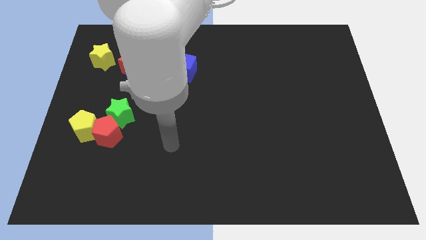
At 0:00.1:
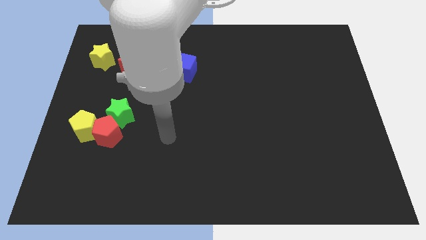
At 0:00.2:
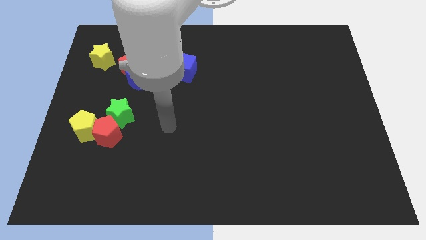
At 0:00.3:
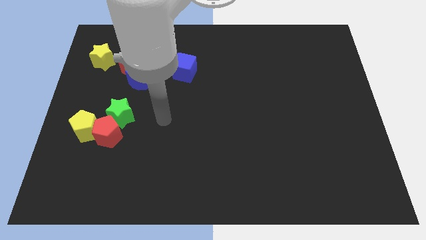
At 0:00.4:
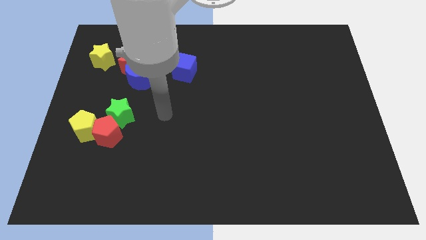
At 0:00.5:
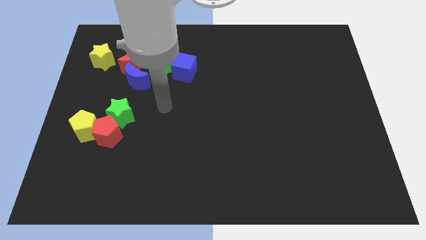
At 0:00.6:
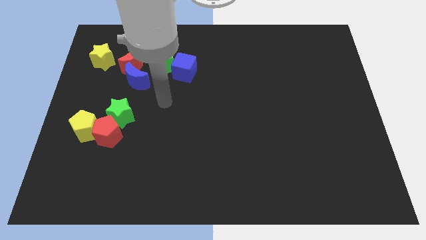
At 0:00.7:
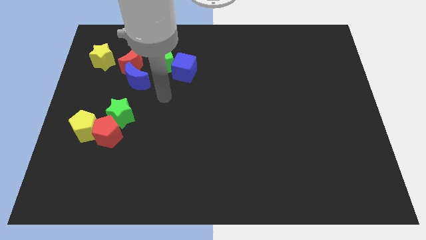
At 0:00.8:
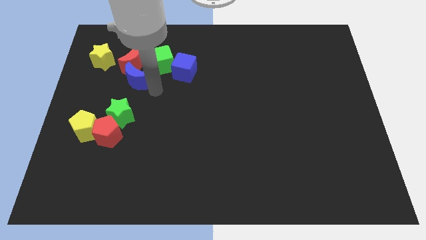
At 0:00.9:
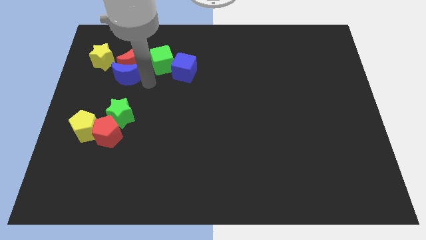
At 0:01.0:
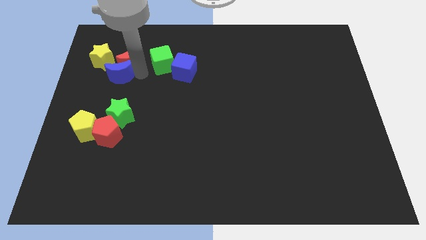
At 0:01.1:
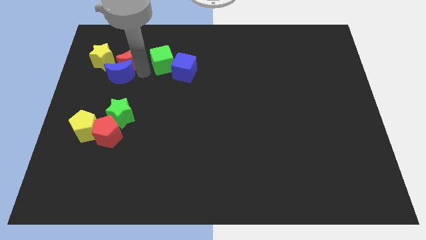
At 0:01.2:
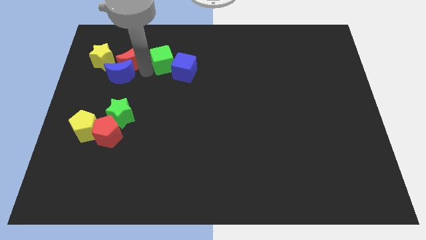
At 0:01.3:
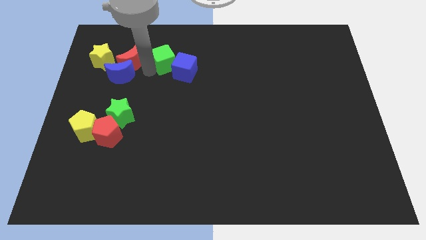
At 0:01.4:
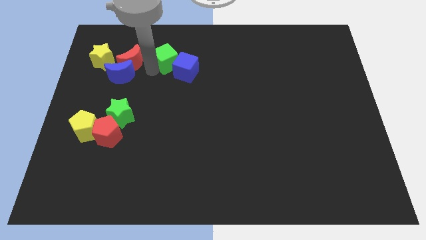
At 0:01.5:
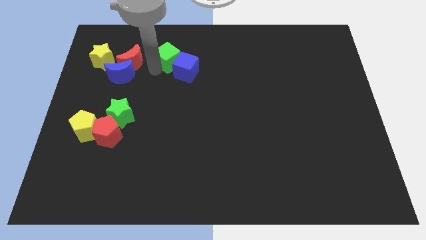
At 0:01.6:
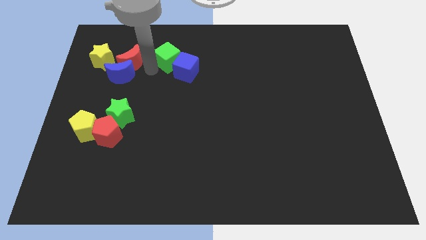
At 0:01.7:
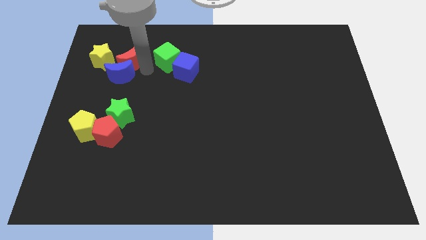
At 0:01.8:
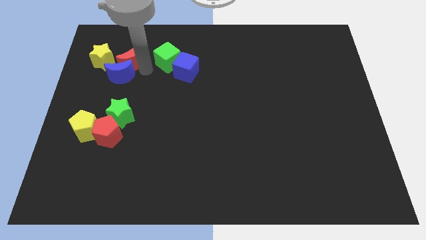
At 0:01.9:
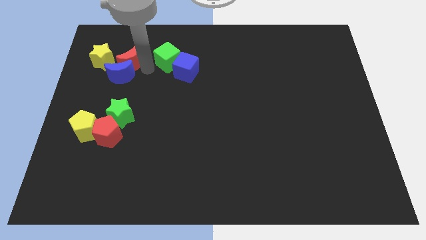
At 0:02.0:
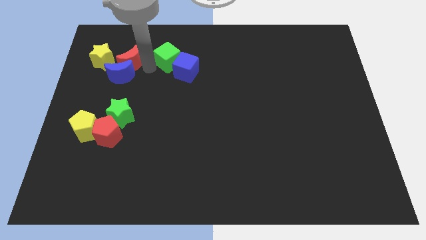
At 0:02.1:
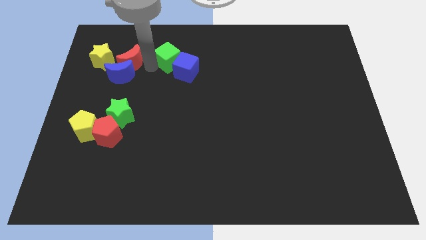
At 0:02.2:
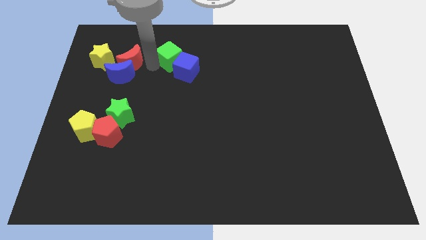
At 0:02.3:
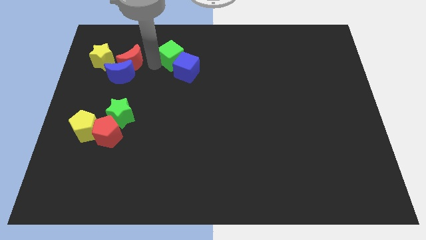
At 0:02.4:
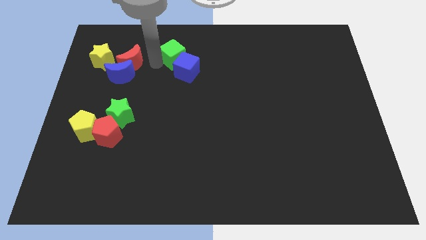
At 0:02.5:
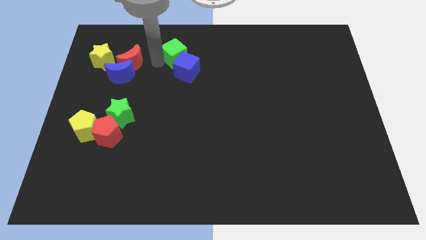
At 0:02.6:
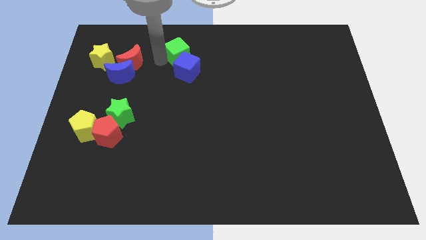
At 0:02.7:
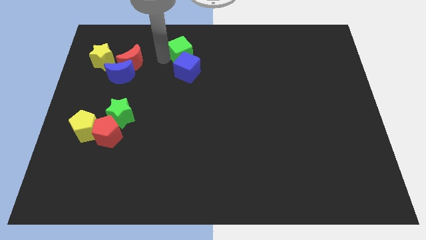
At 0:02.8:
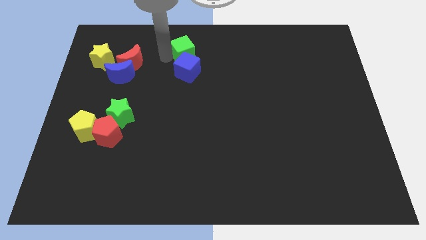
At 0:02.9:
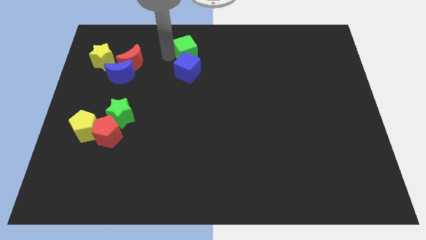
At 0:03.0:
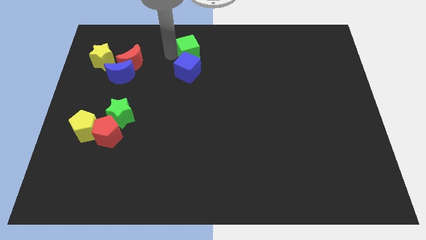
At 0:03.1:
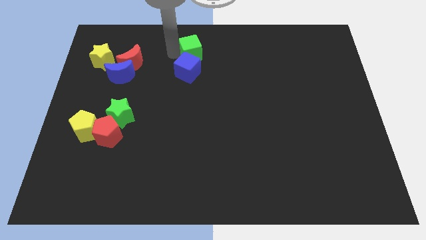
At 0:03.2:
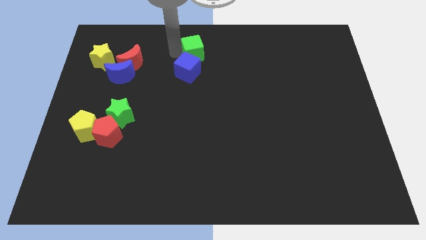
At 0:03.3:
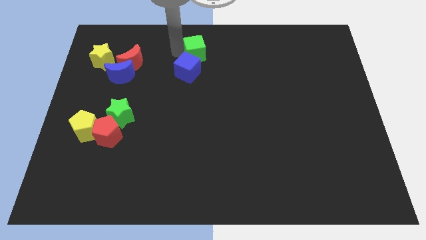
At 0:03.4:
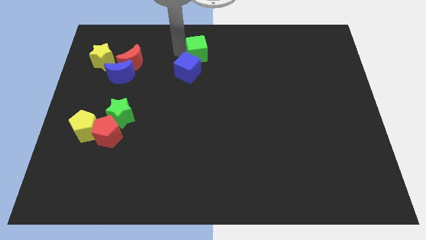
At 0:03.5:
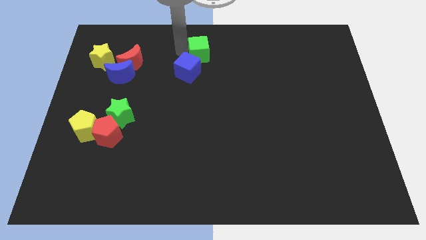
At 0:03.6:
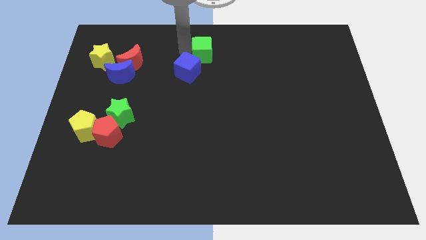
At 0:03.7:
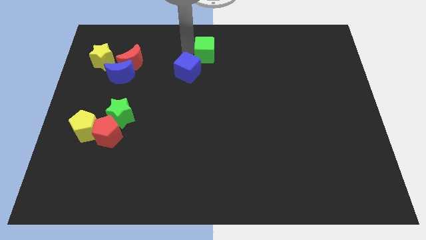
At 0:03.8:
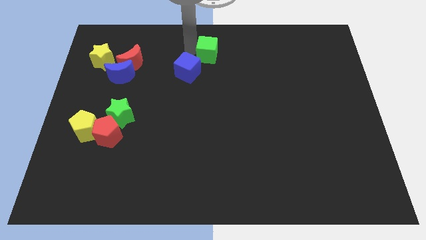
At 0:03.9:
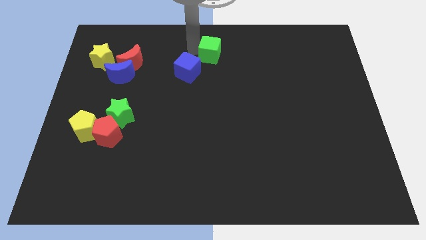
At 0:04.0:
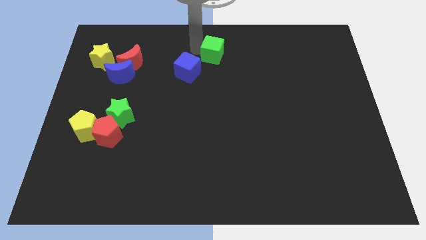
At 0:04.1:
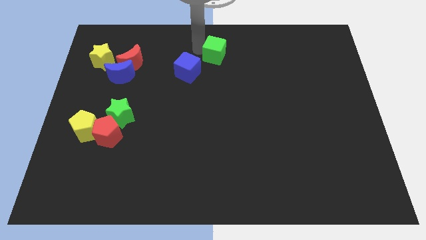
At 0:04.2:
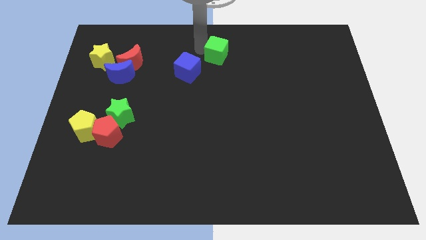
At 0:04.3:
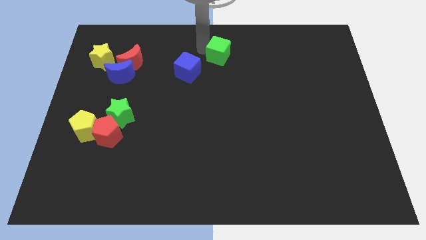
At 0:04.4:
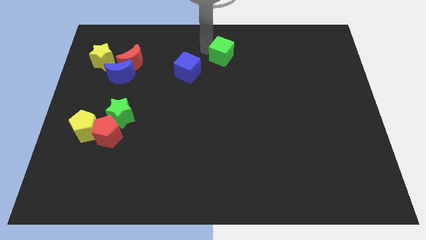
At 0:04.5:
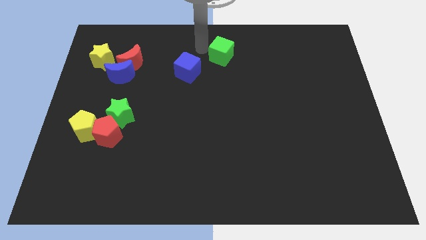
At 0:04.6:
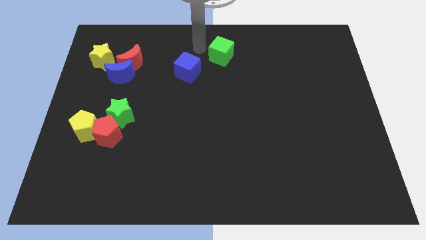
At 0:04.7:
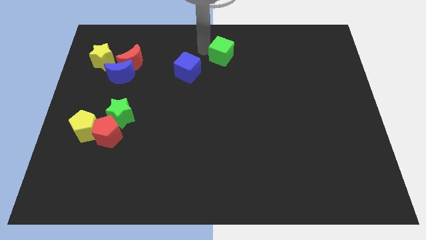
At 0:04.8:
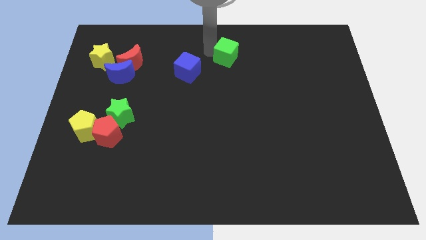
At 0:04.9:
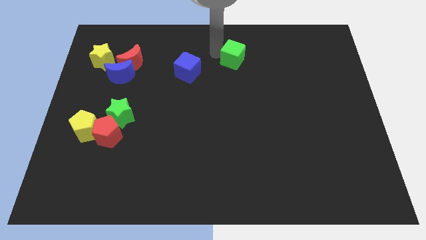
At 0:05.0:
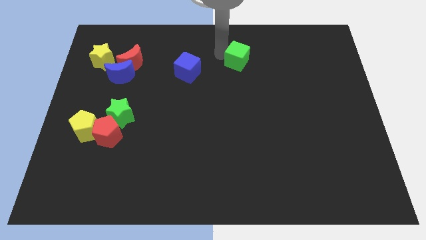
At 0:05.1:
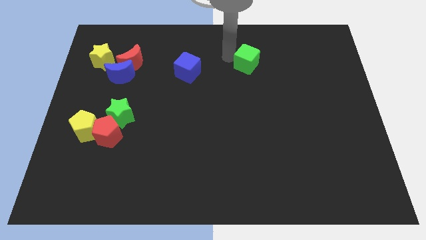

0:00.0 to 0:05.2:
slide the green cube right

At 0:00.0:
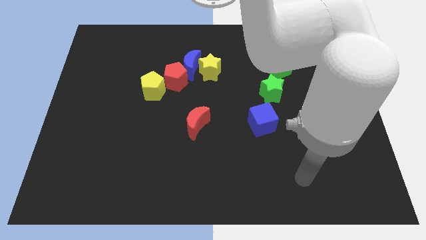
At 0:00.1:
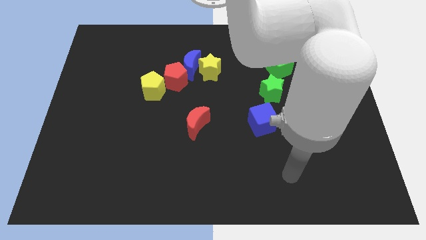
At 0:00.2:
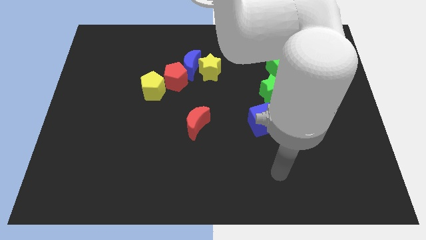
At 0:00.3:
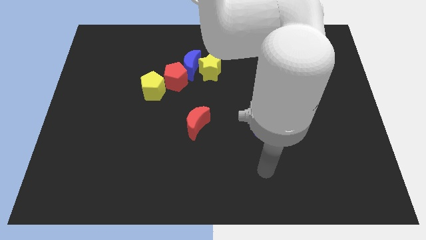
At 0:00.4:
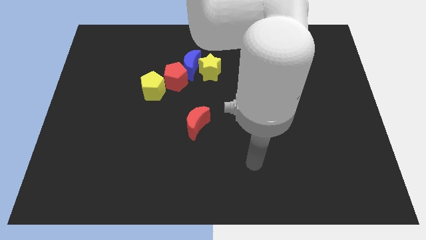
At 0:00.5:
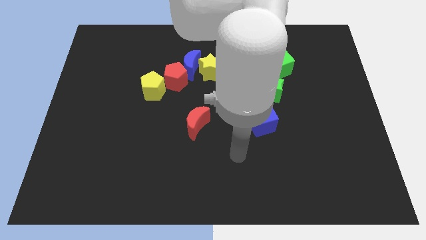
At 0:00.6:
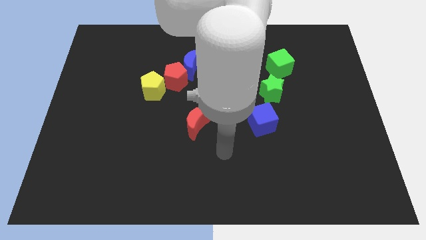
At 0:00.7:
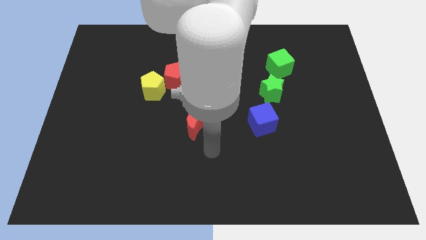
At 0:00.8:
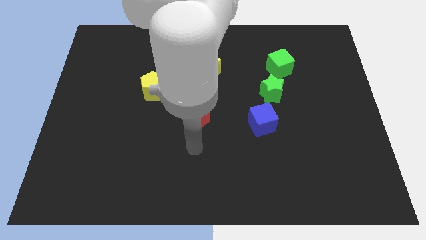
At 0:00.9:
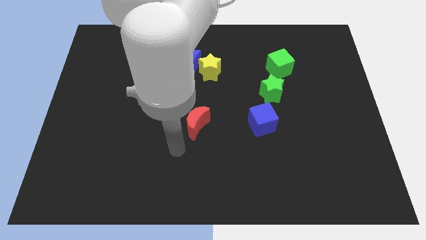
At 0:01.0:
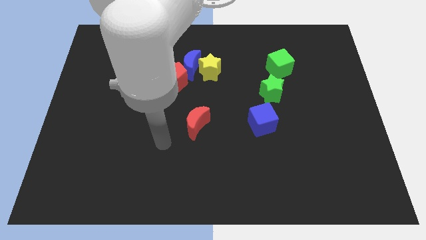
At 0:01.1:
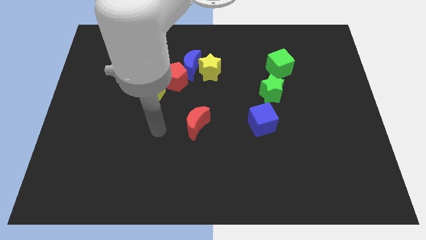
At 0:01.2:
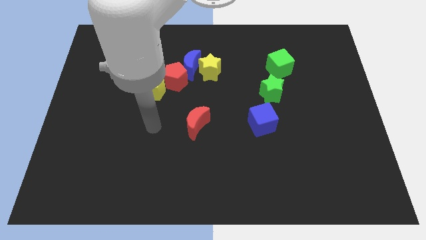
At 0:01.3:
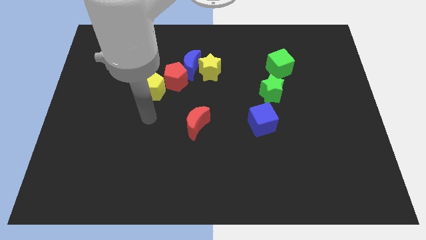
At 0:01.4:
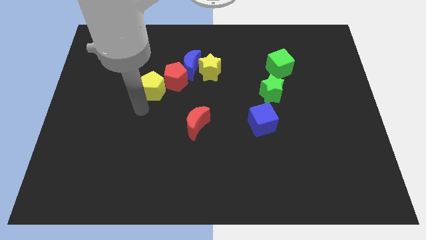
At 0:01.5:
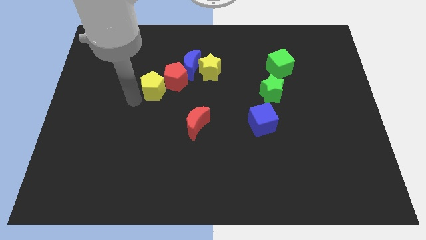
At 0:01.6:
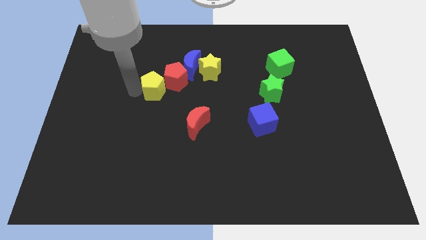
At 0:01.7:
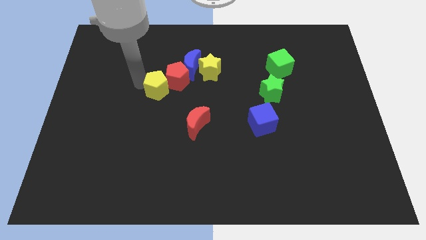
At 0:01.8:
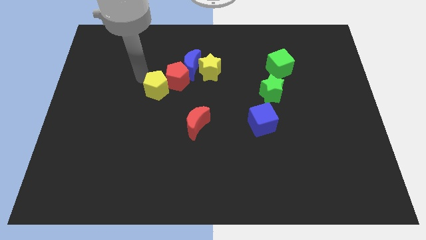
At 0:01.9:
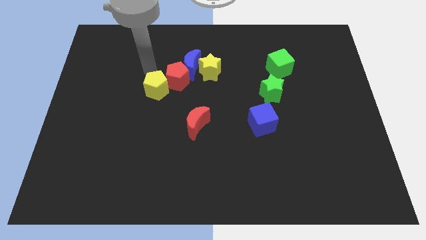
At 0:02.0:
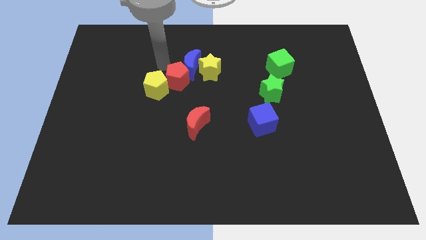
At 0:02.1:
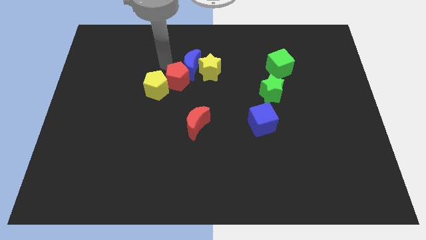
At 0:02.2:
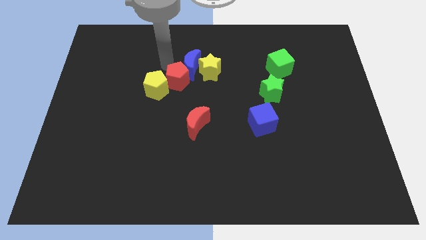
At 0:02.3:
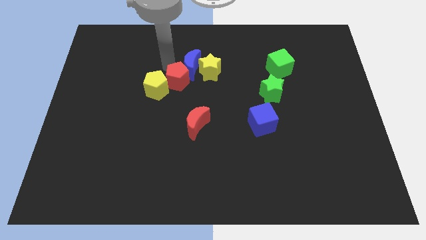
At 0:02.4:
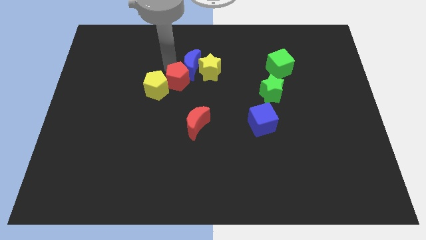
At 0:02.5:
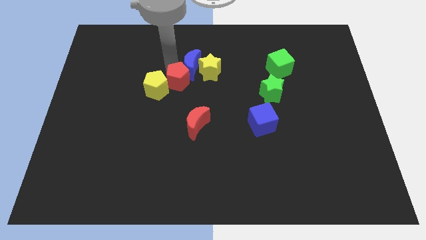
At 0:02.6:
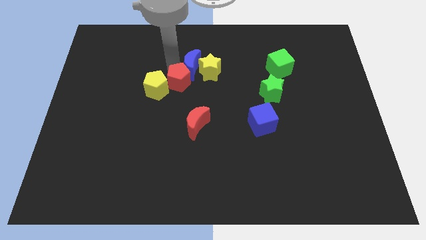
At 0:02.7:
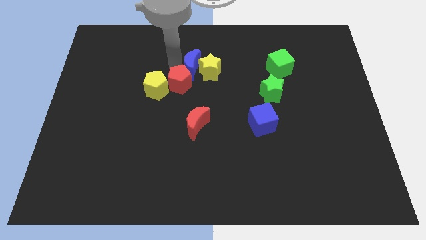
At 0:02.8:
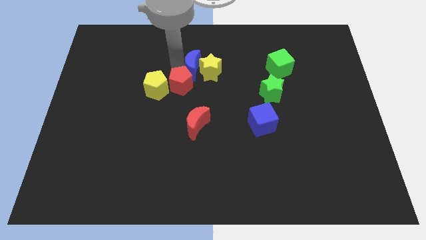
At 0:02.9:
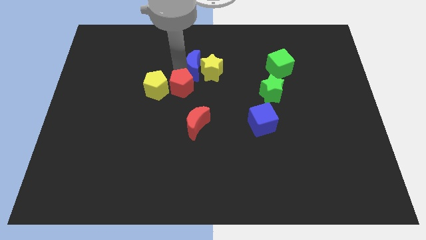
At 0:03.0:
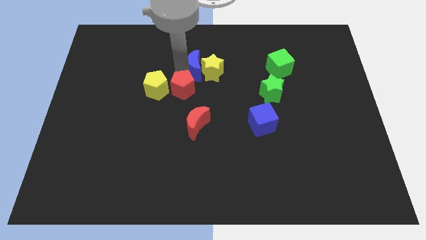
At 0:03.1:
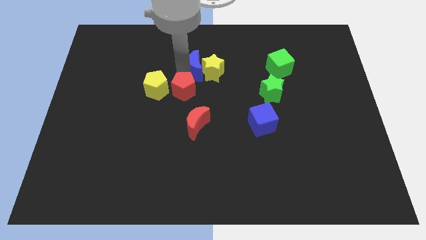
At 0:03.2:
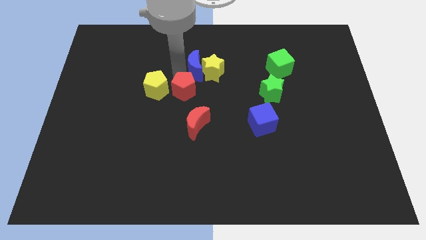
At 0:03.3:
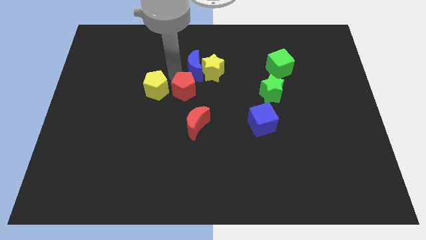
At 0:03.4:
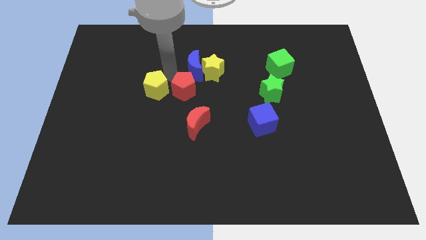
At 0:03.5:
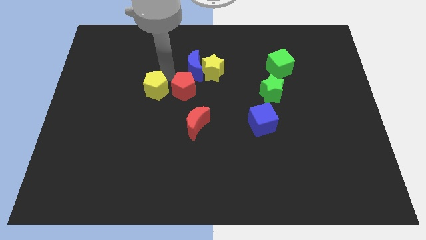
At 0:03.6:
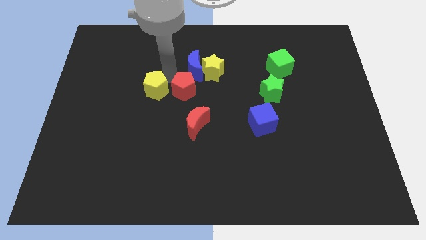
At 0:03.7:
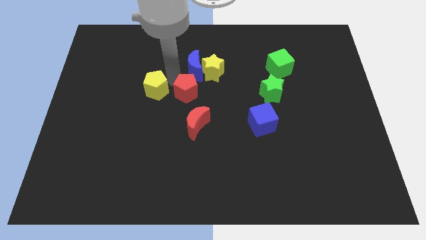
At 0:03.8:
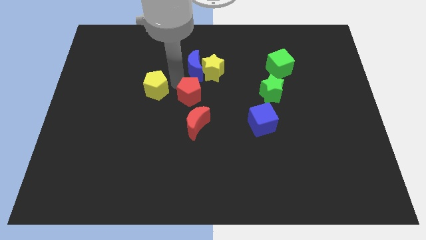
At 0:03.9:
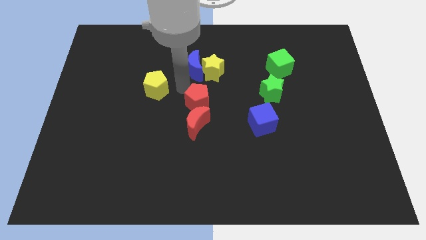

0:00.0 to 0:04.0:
slightly move the red pentagon diagonally down and right
